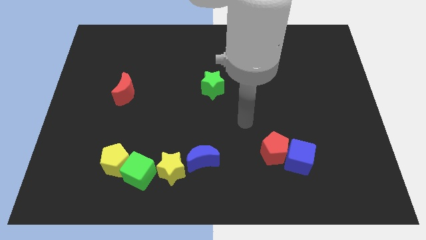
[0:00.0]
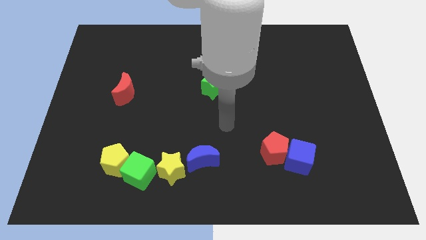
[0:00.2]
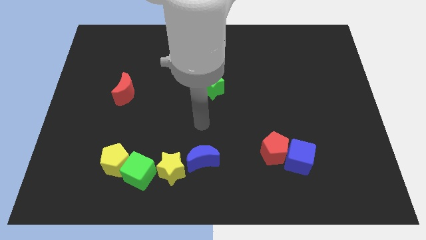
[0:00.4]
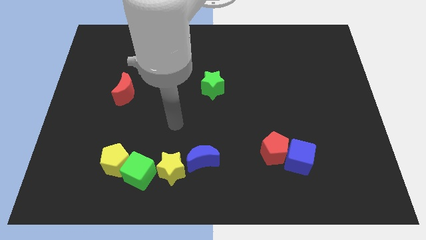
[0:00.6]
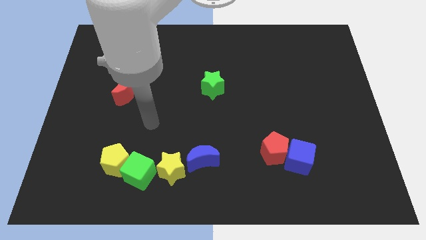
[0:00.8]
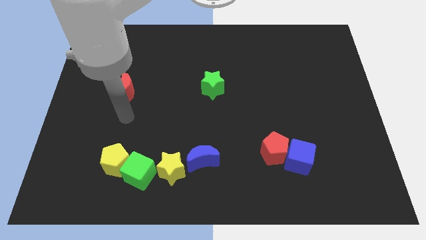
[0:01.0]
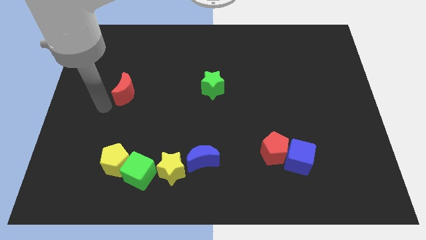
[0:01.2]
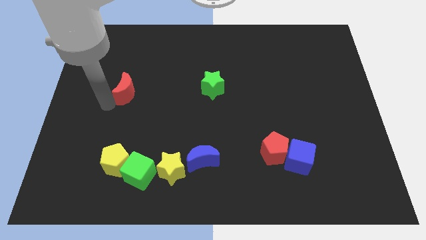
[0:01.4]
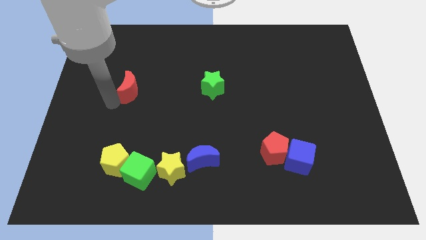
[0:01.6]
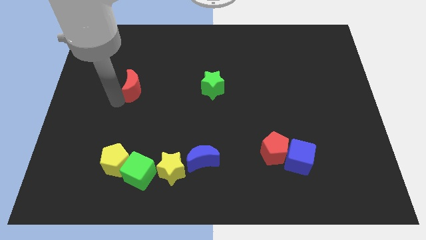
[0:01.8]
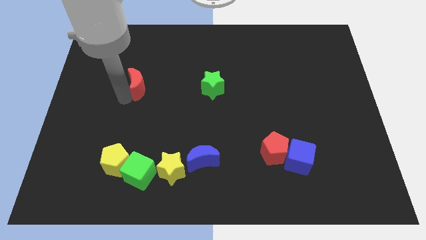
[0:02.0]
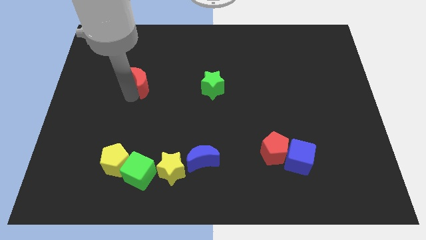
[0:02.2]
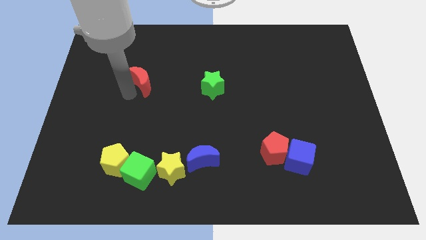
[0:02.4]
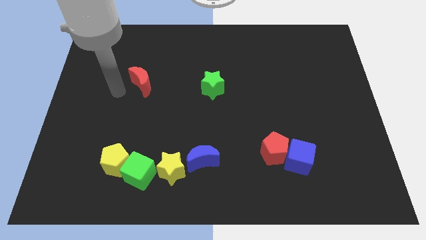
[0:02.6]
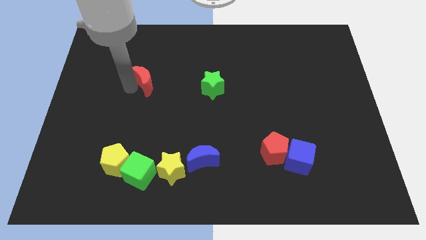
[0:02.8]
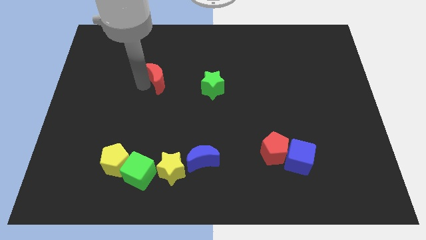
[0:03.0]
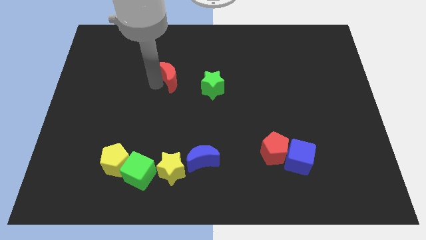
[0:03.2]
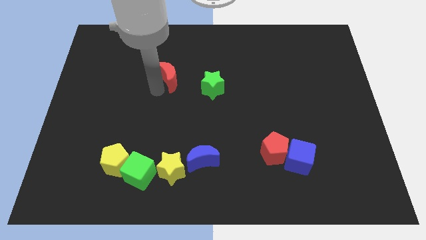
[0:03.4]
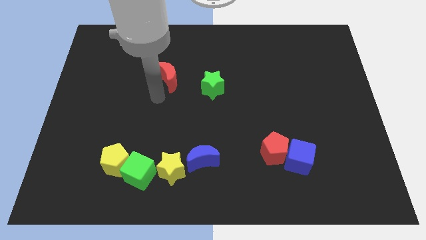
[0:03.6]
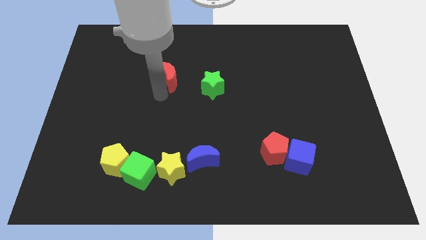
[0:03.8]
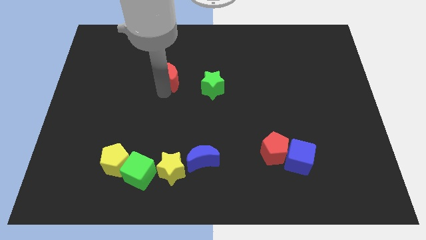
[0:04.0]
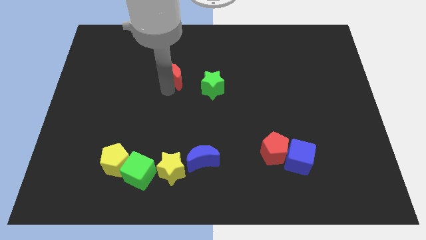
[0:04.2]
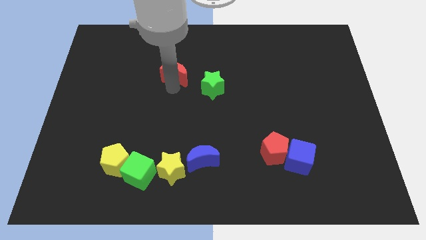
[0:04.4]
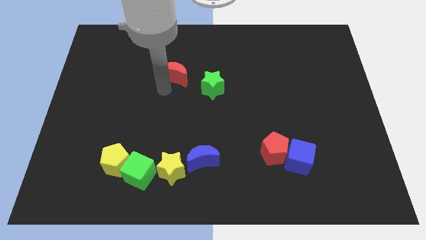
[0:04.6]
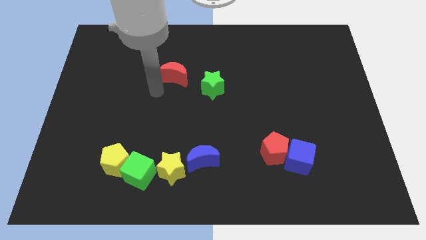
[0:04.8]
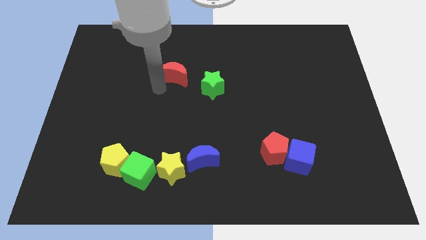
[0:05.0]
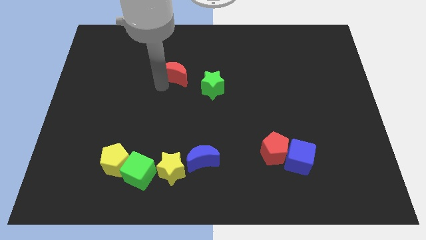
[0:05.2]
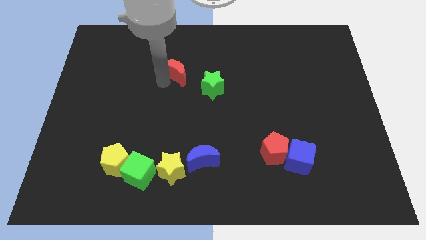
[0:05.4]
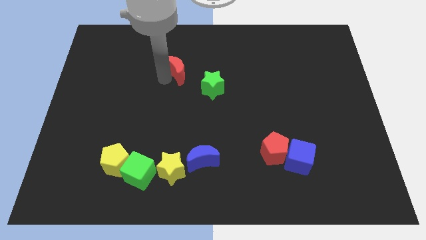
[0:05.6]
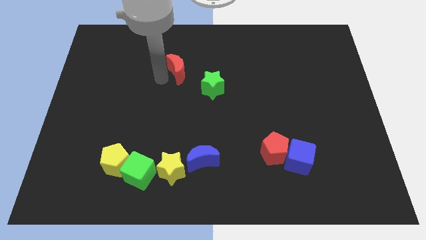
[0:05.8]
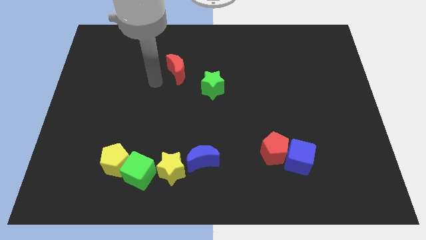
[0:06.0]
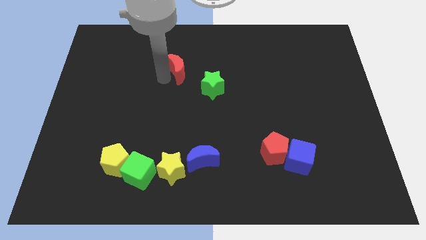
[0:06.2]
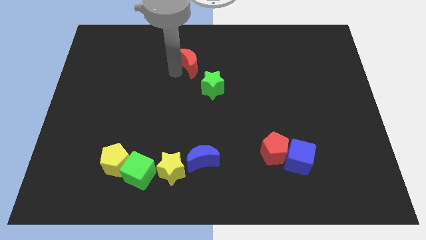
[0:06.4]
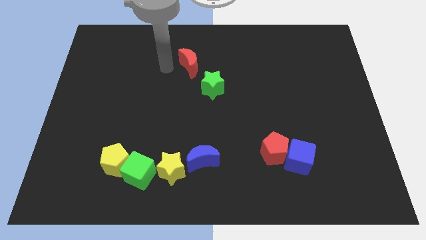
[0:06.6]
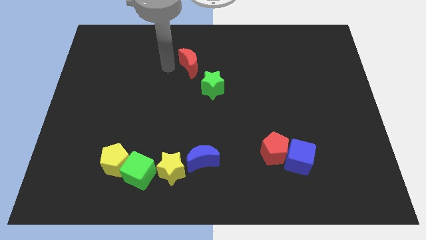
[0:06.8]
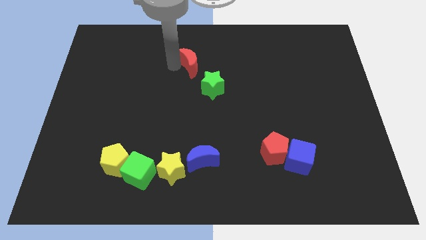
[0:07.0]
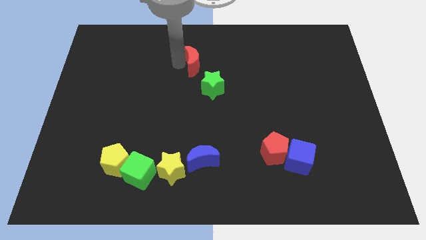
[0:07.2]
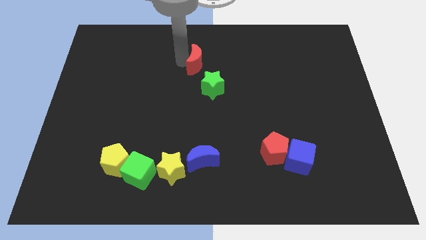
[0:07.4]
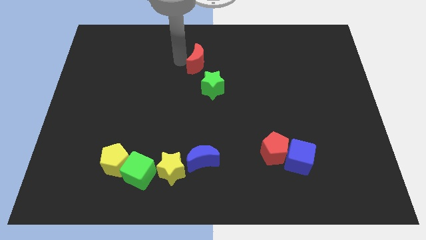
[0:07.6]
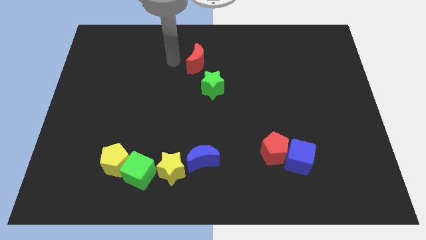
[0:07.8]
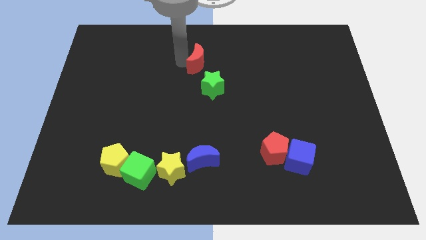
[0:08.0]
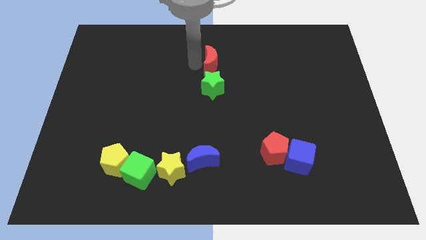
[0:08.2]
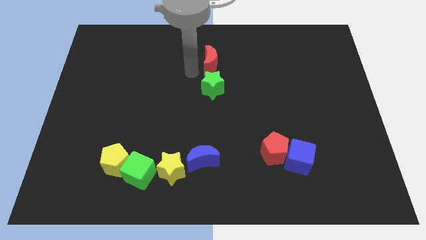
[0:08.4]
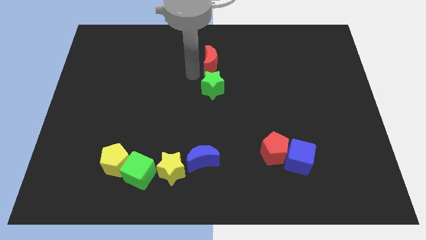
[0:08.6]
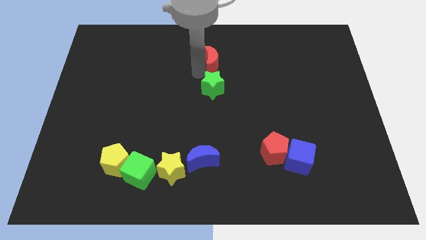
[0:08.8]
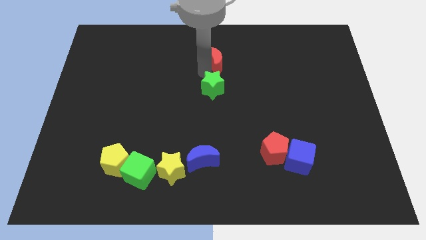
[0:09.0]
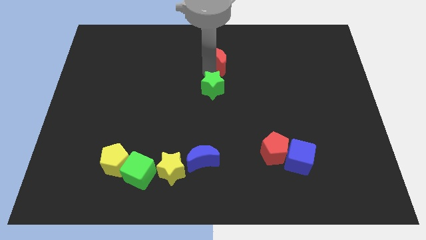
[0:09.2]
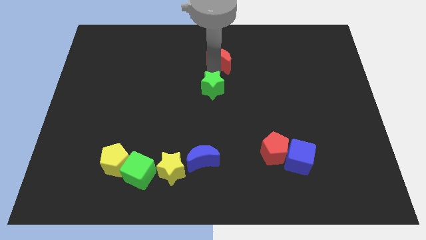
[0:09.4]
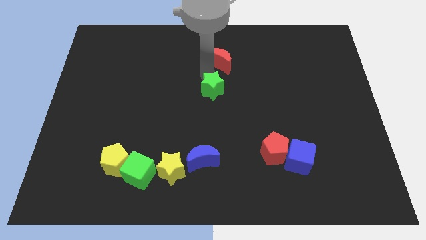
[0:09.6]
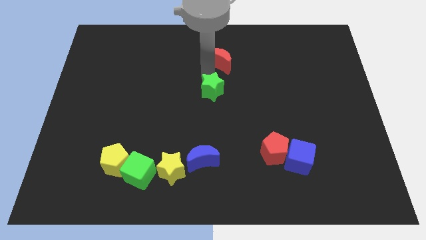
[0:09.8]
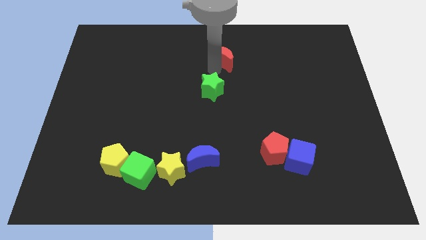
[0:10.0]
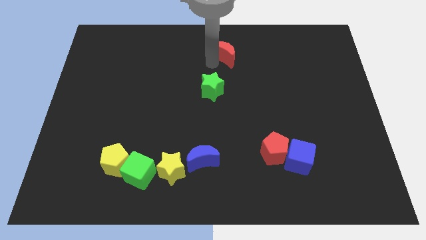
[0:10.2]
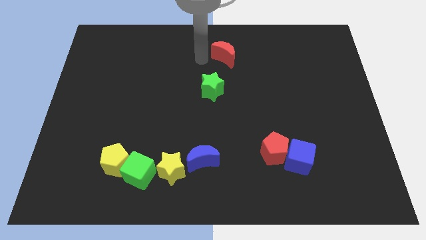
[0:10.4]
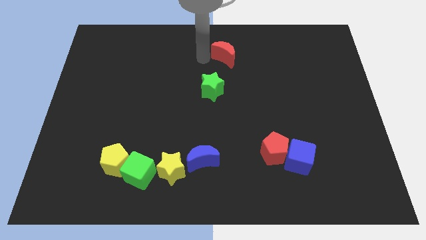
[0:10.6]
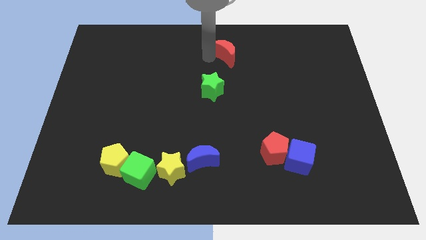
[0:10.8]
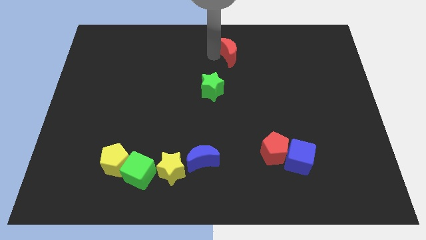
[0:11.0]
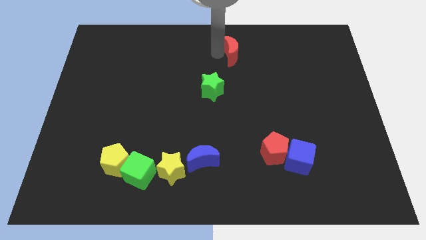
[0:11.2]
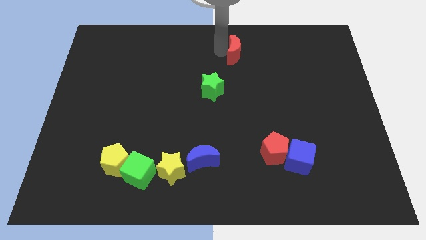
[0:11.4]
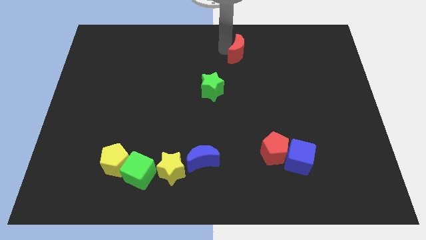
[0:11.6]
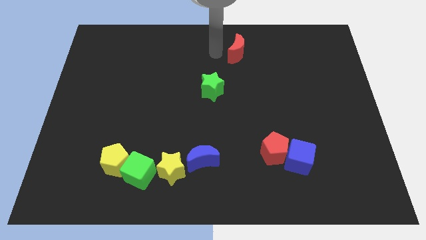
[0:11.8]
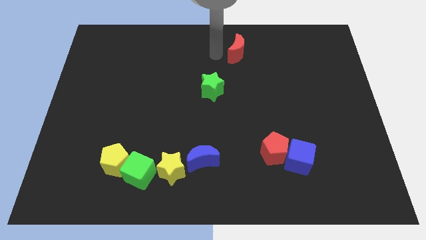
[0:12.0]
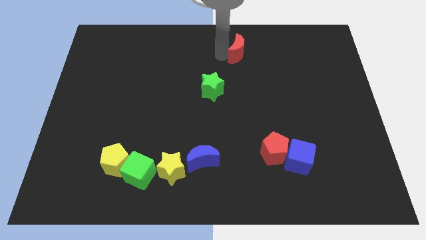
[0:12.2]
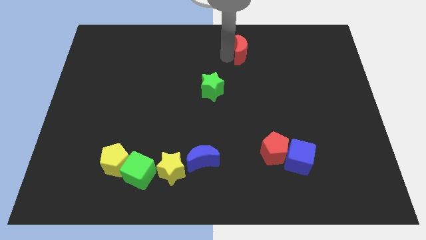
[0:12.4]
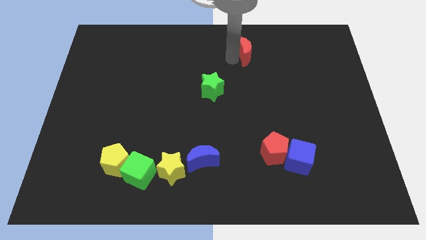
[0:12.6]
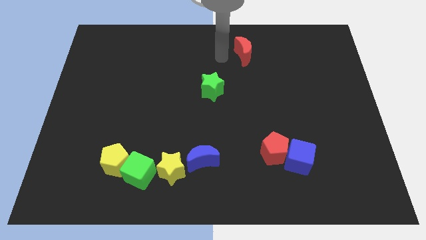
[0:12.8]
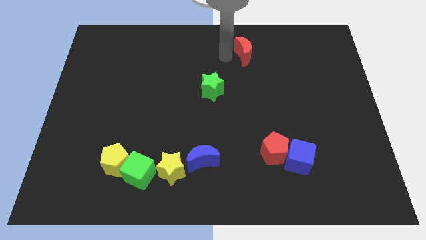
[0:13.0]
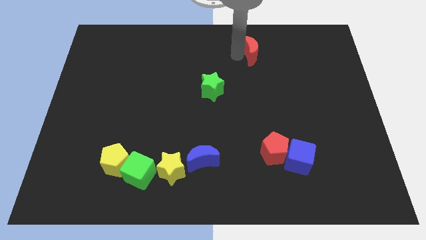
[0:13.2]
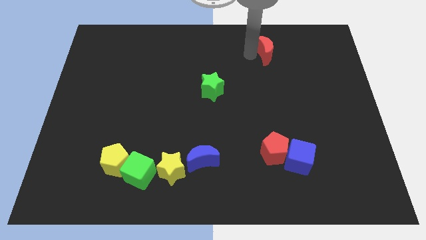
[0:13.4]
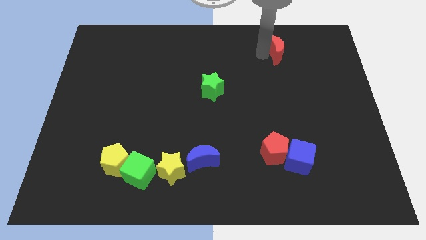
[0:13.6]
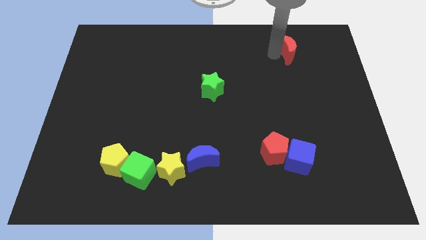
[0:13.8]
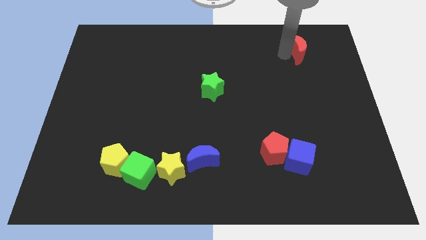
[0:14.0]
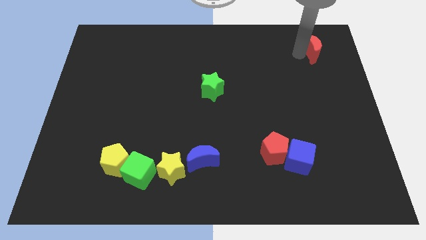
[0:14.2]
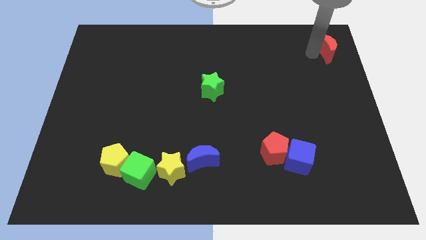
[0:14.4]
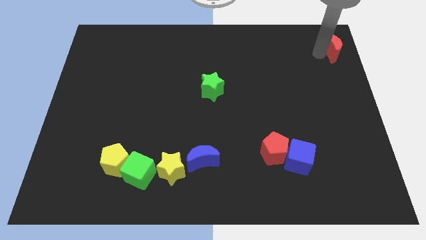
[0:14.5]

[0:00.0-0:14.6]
put the red moon to the top right corner
